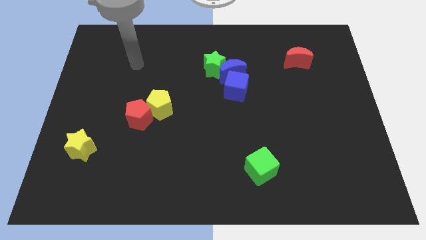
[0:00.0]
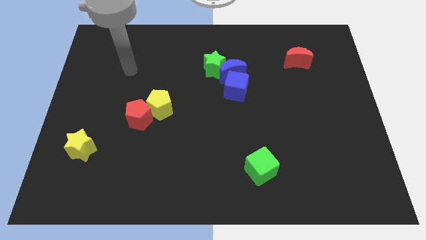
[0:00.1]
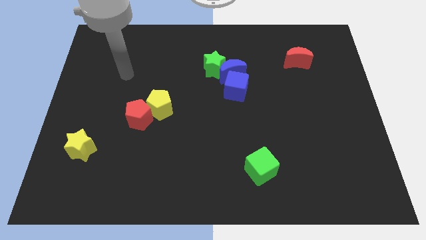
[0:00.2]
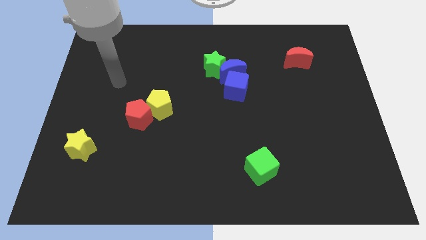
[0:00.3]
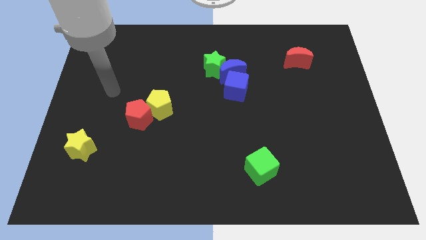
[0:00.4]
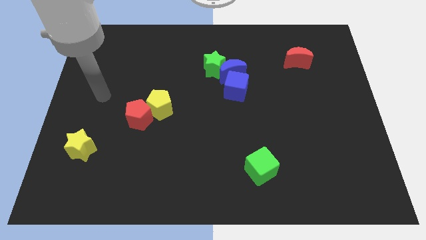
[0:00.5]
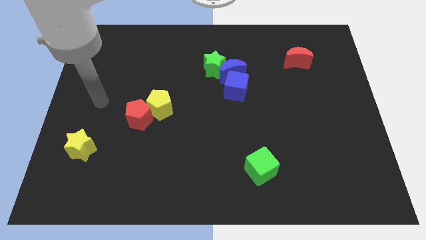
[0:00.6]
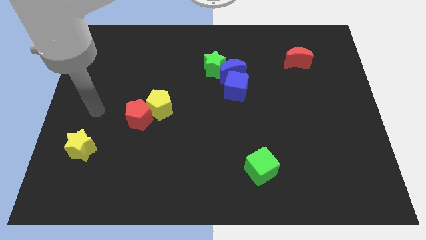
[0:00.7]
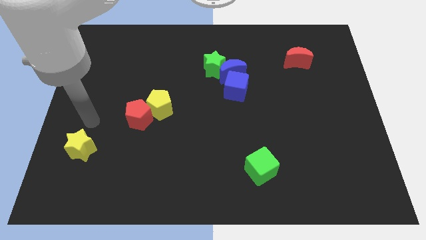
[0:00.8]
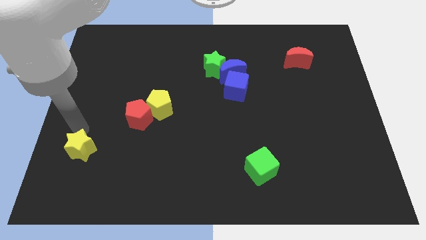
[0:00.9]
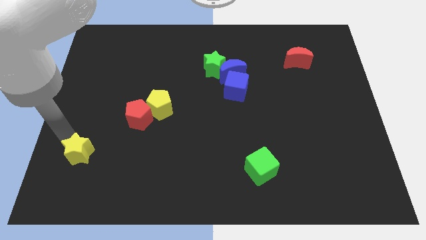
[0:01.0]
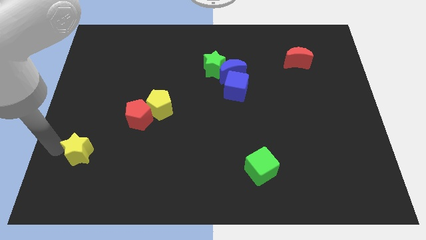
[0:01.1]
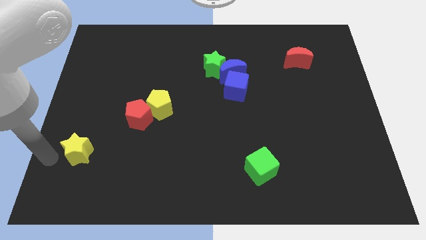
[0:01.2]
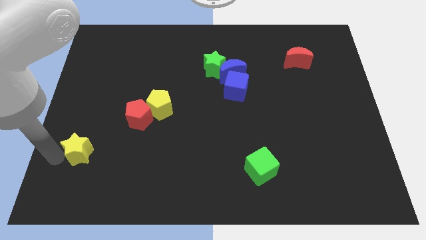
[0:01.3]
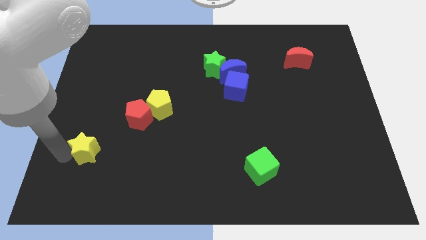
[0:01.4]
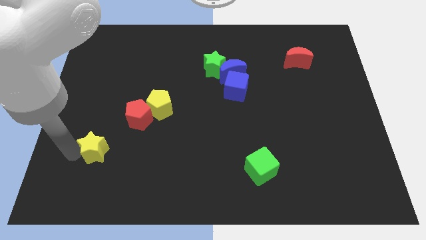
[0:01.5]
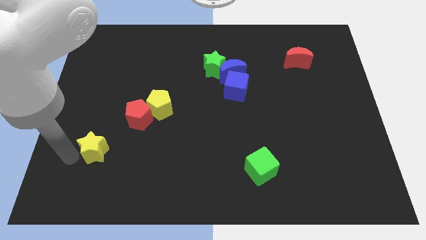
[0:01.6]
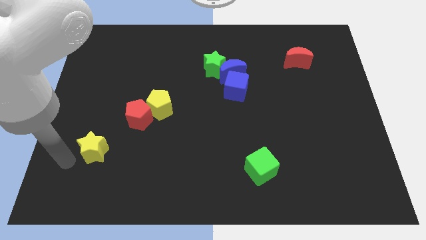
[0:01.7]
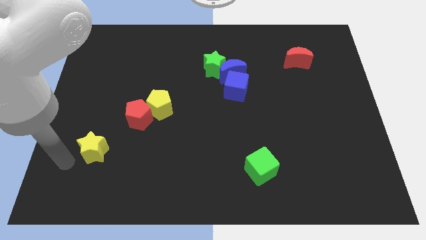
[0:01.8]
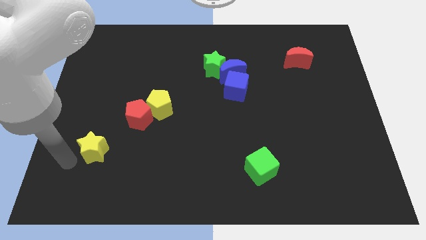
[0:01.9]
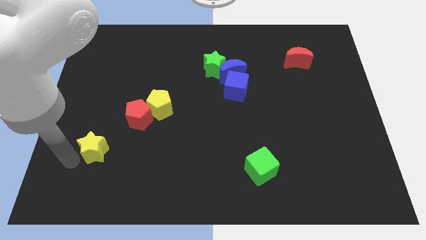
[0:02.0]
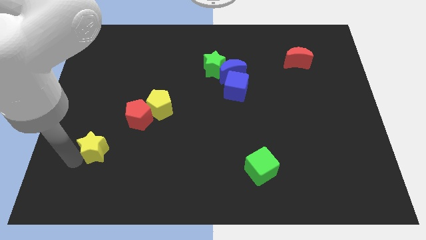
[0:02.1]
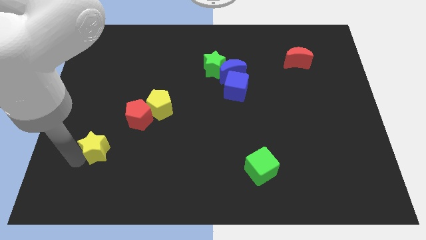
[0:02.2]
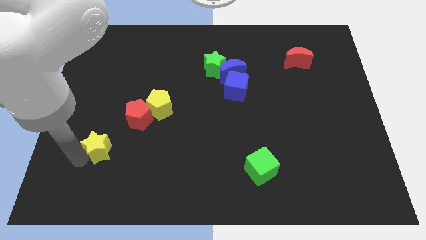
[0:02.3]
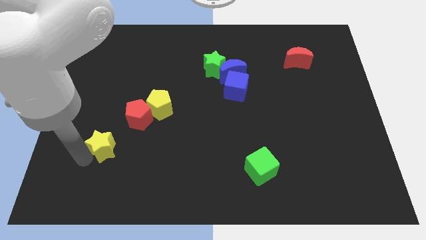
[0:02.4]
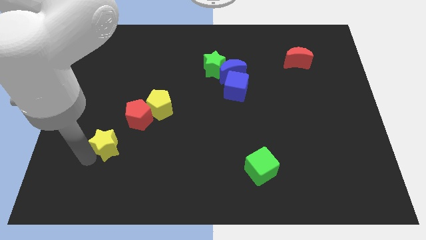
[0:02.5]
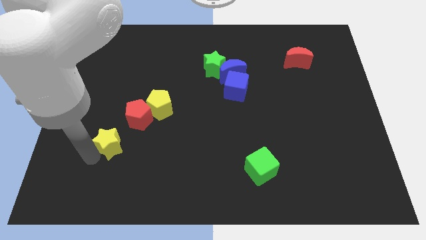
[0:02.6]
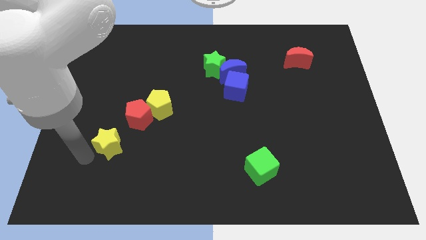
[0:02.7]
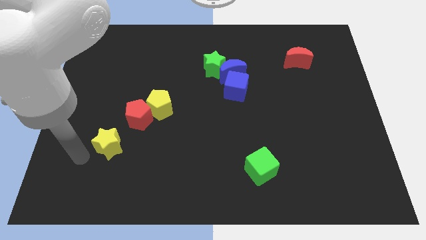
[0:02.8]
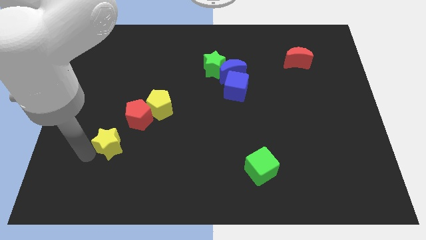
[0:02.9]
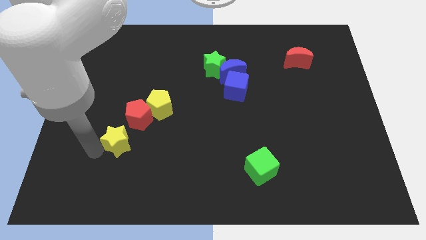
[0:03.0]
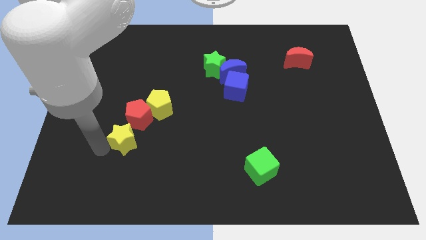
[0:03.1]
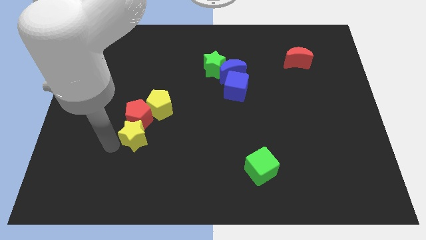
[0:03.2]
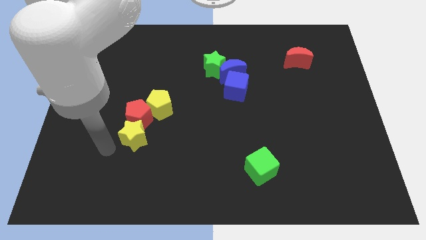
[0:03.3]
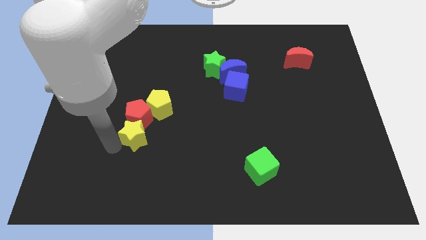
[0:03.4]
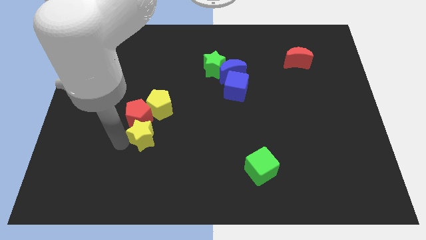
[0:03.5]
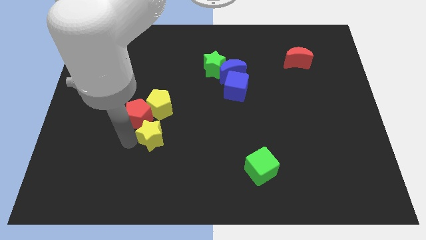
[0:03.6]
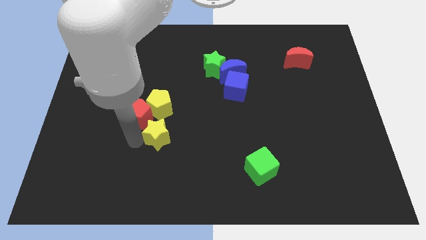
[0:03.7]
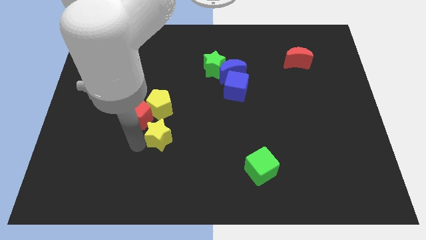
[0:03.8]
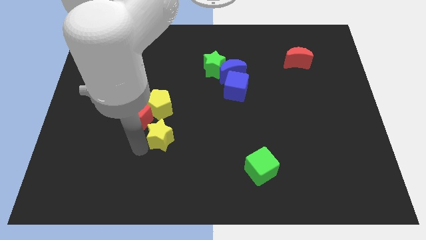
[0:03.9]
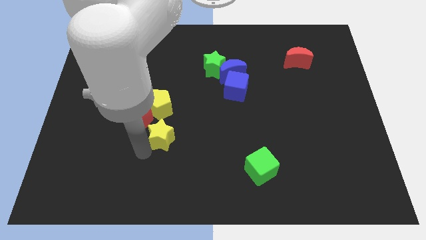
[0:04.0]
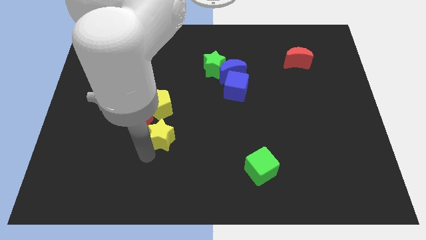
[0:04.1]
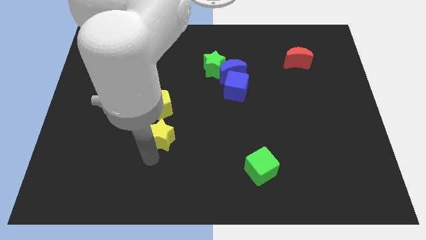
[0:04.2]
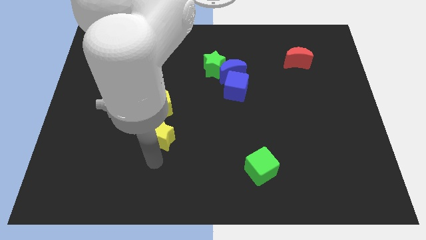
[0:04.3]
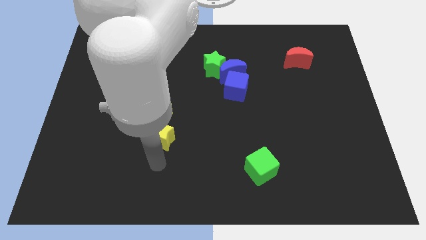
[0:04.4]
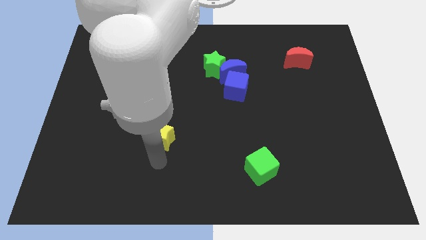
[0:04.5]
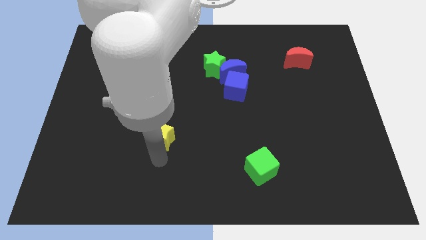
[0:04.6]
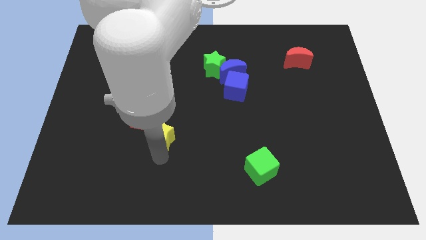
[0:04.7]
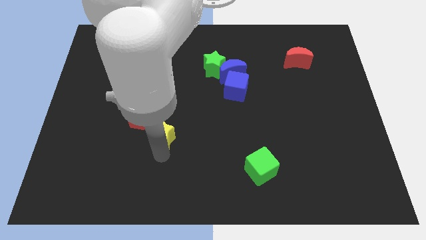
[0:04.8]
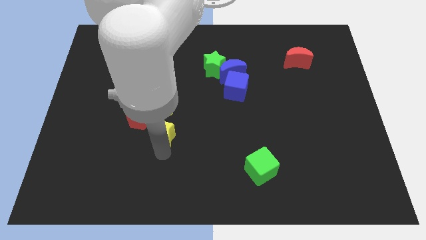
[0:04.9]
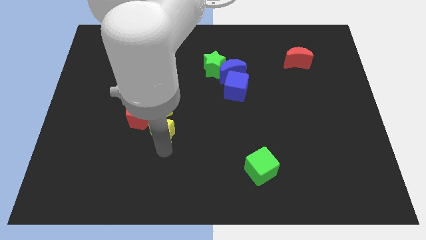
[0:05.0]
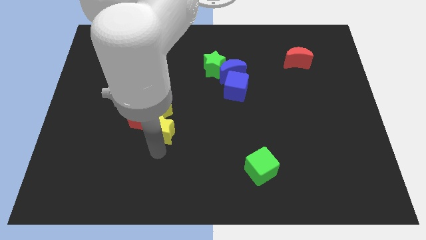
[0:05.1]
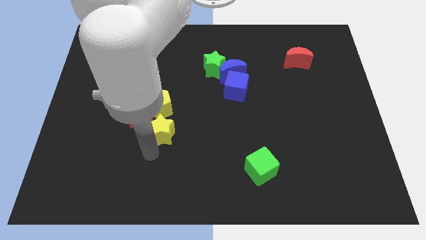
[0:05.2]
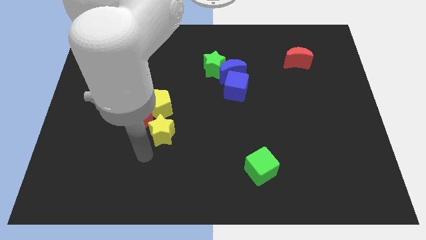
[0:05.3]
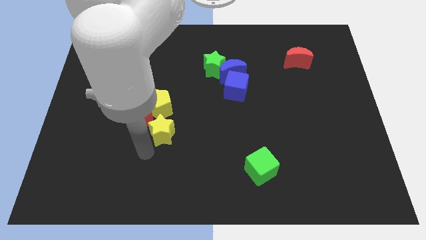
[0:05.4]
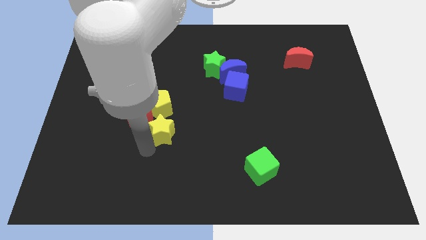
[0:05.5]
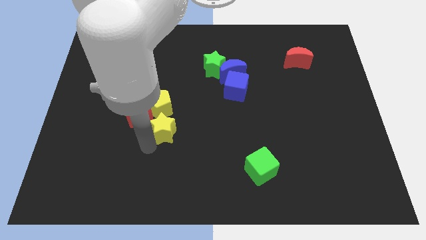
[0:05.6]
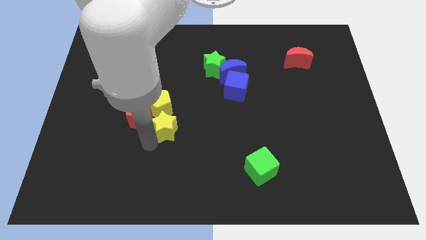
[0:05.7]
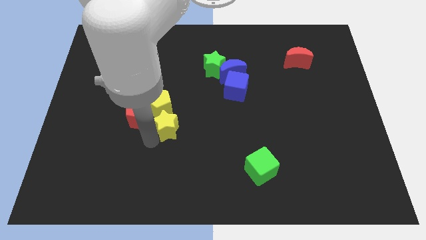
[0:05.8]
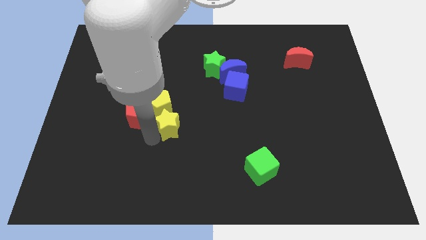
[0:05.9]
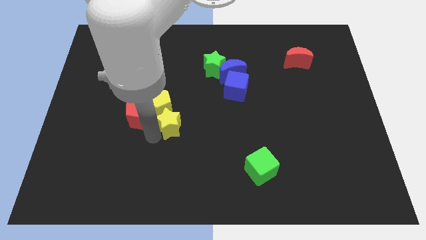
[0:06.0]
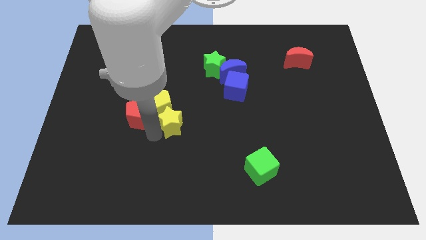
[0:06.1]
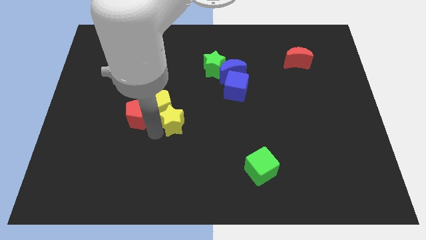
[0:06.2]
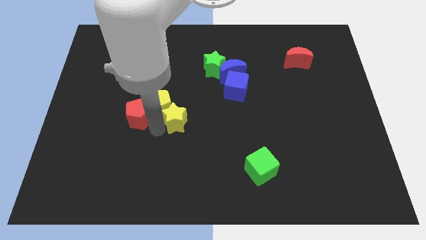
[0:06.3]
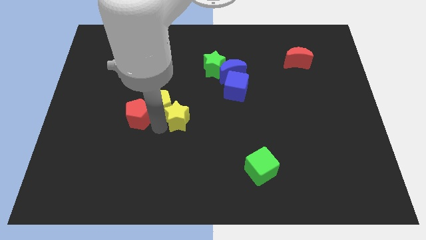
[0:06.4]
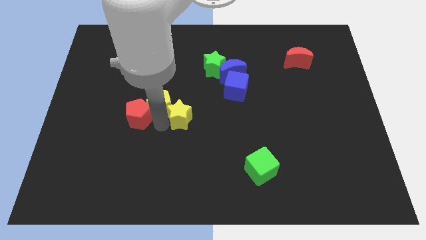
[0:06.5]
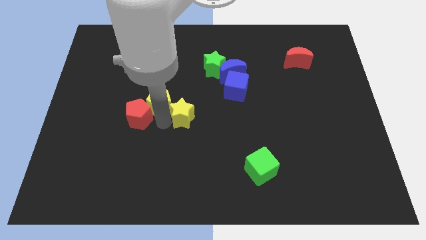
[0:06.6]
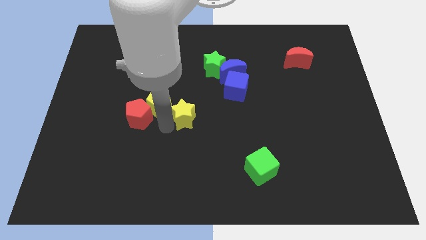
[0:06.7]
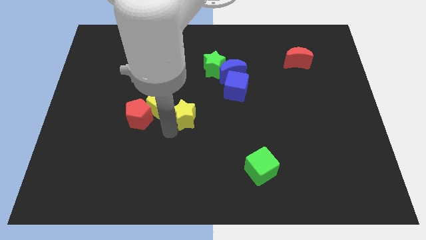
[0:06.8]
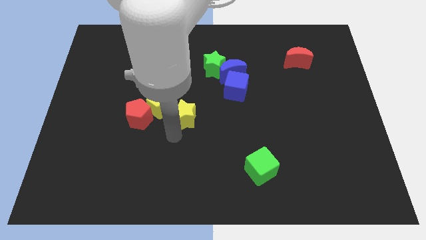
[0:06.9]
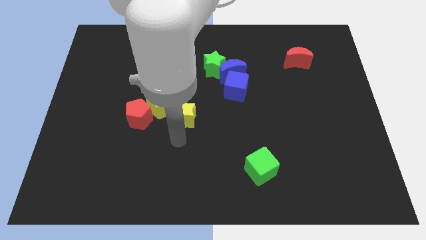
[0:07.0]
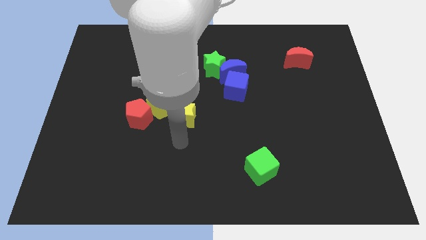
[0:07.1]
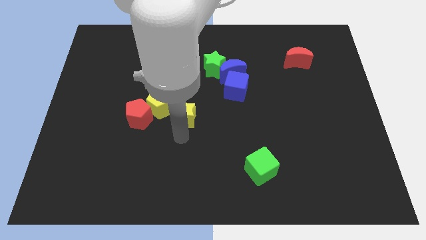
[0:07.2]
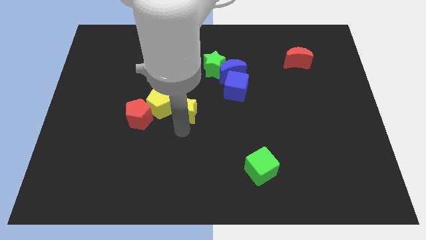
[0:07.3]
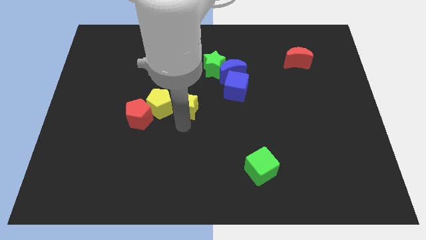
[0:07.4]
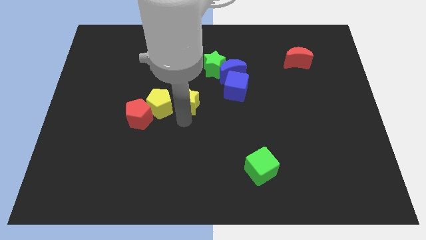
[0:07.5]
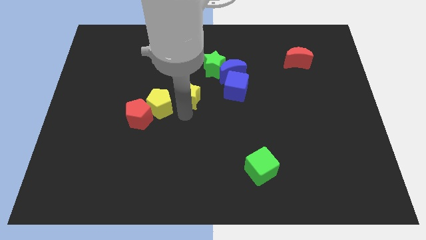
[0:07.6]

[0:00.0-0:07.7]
put the yellow star to the bottom left of the green star
